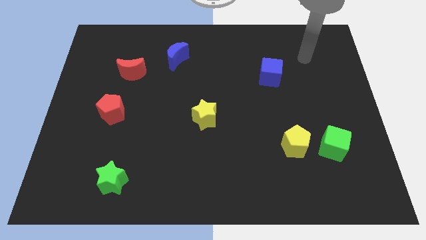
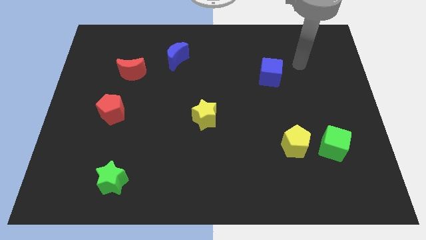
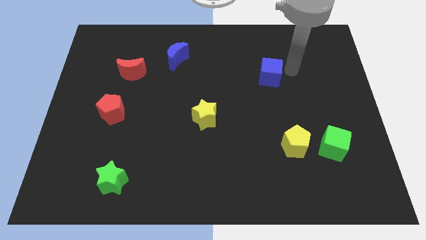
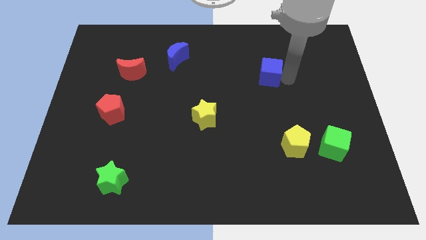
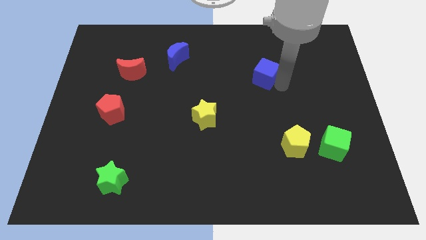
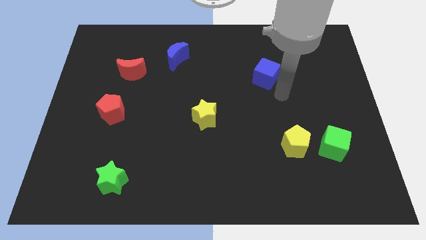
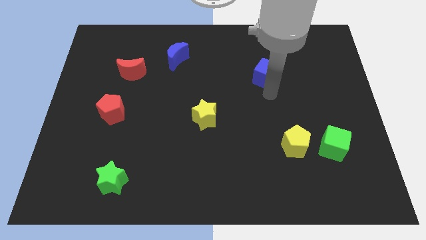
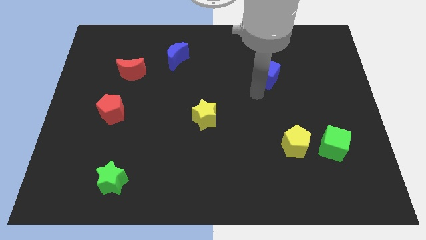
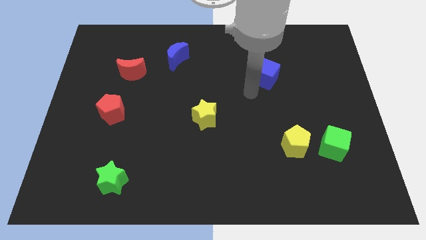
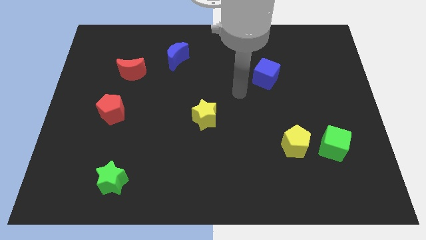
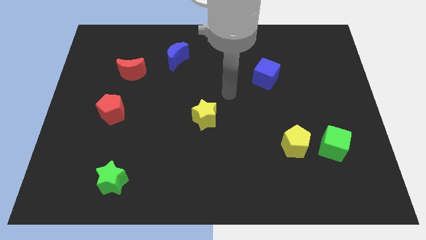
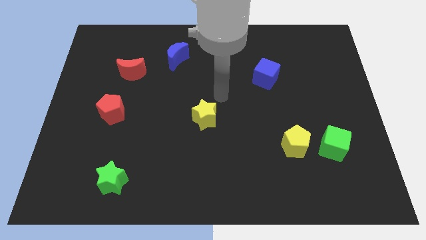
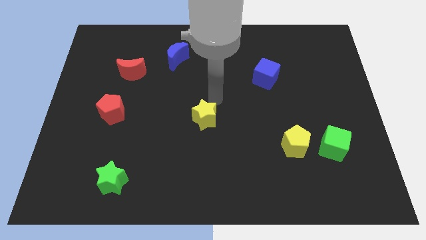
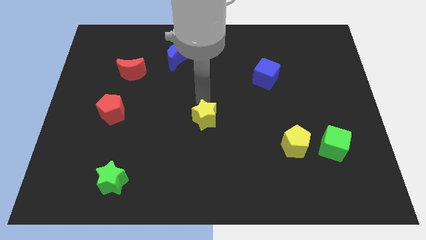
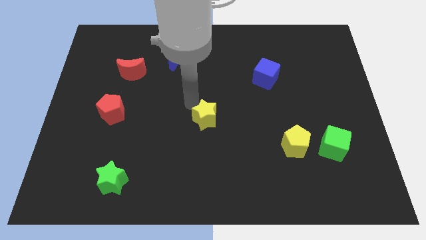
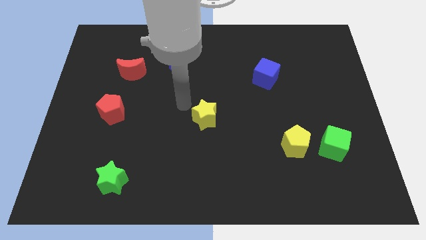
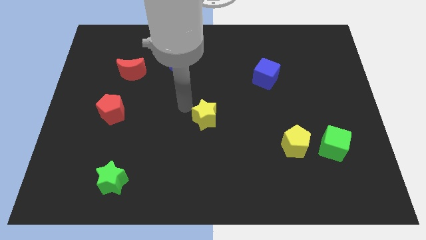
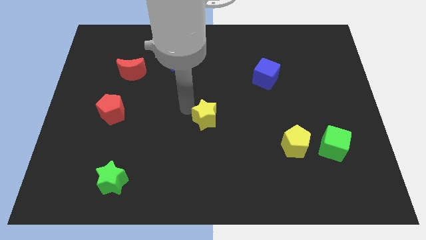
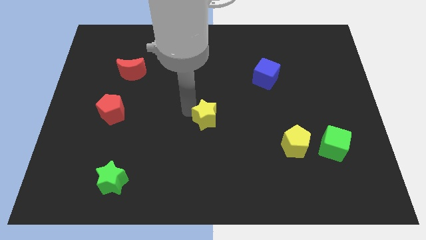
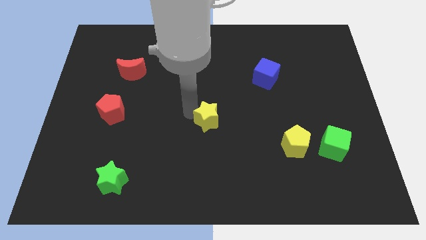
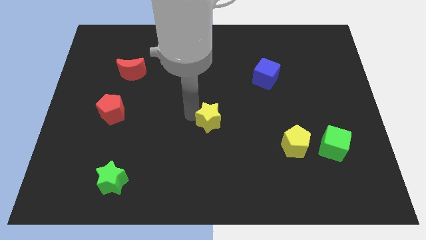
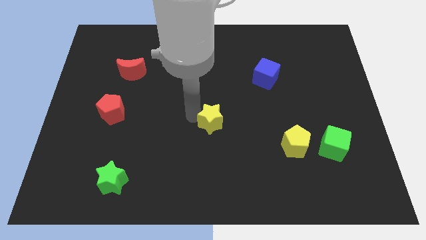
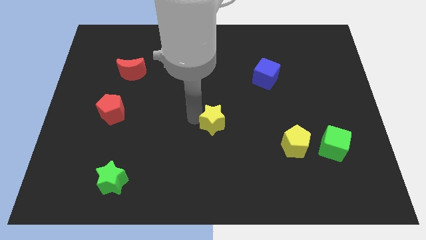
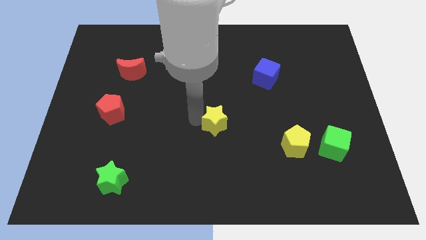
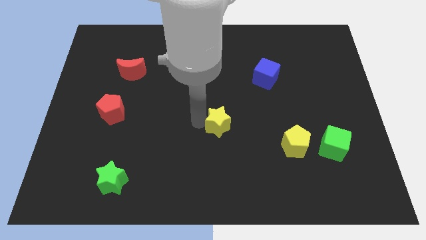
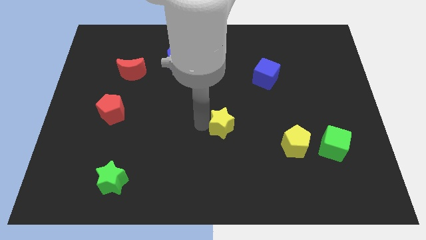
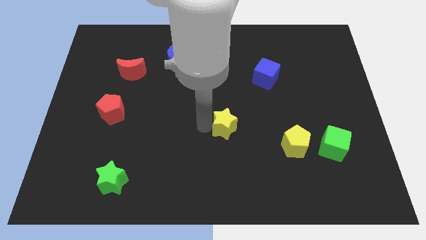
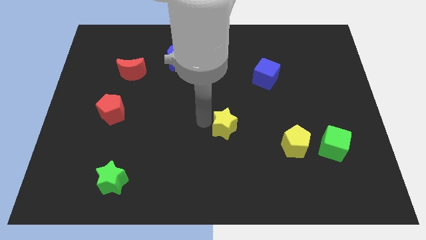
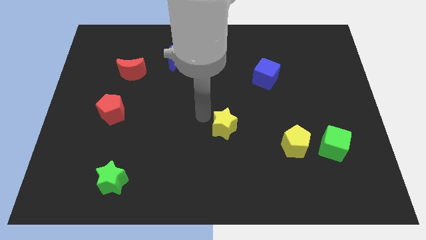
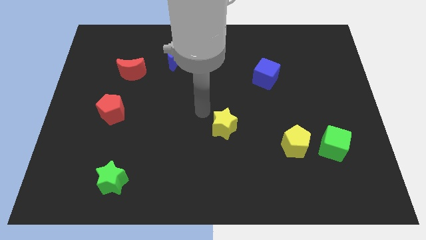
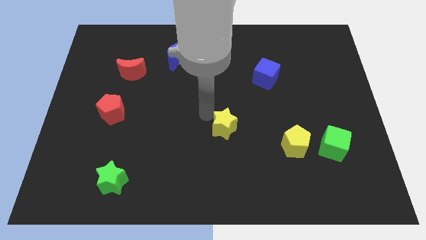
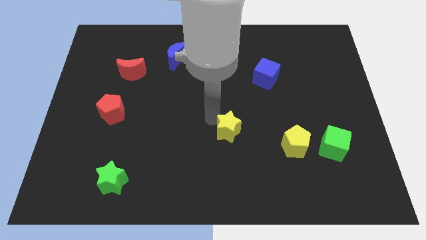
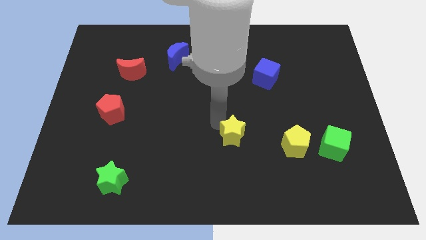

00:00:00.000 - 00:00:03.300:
slightly push the yellow star down and then right

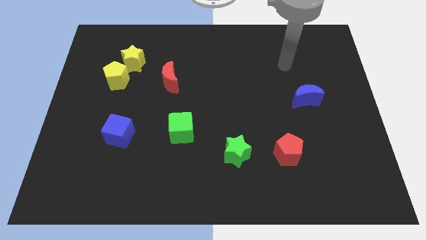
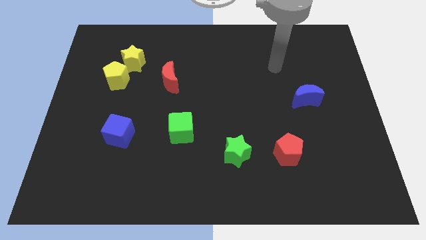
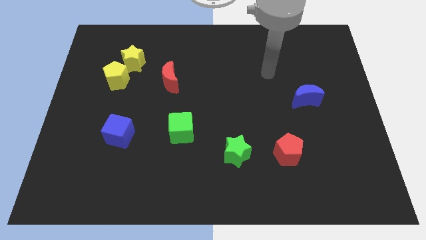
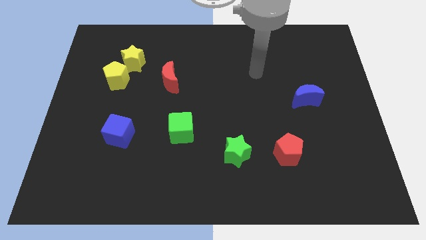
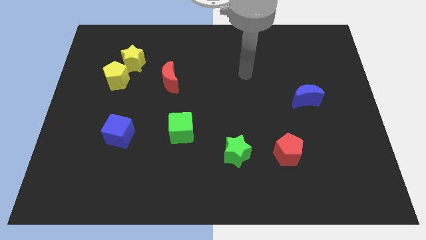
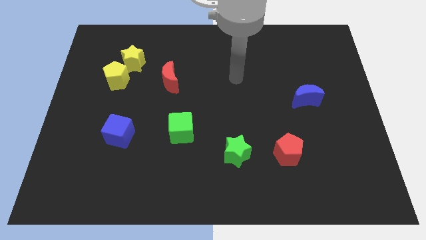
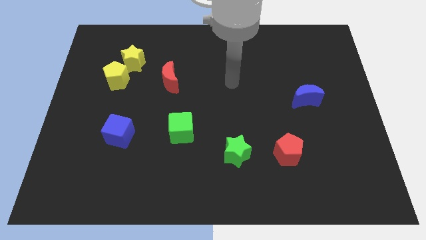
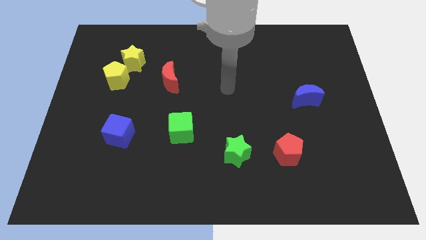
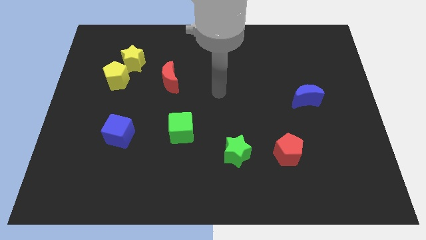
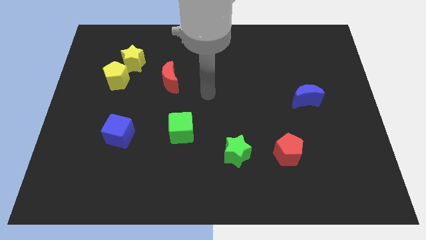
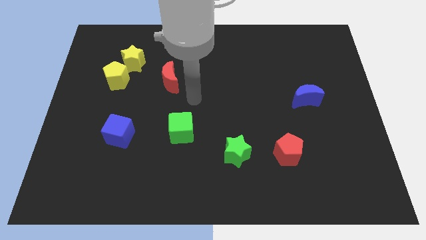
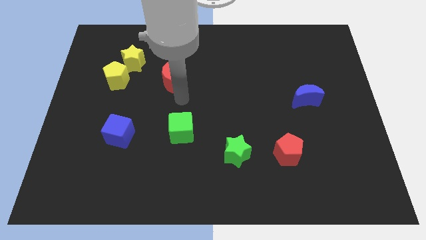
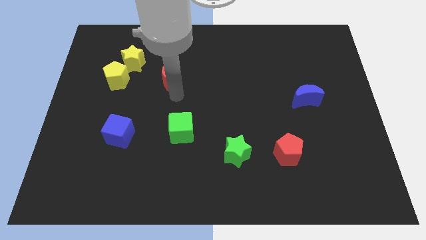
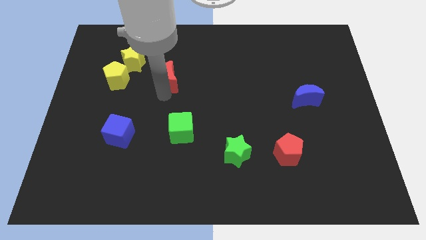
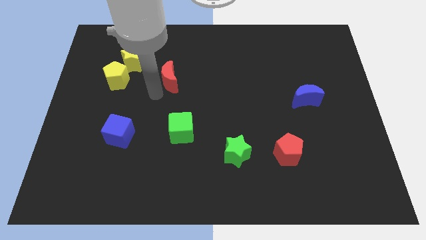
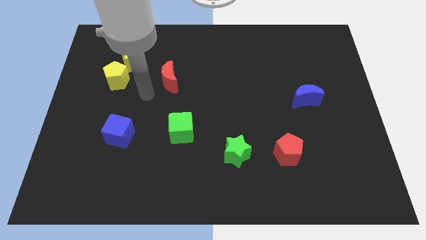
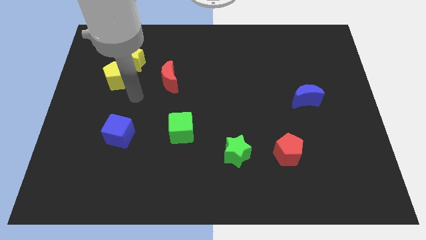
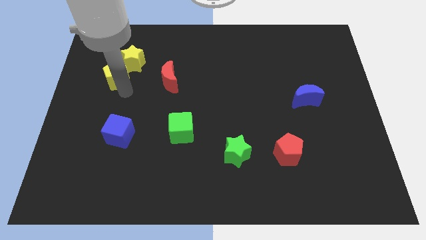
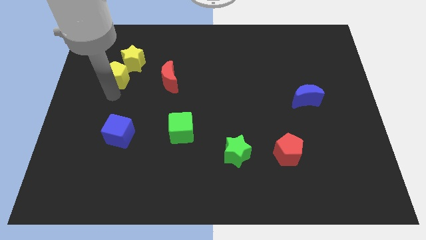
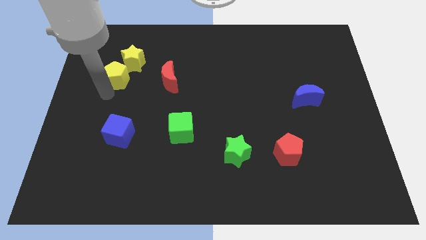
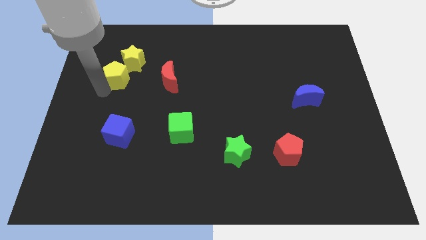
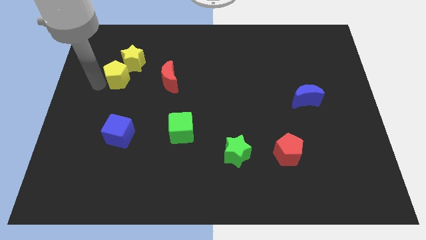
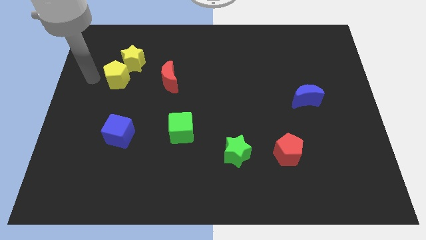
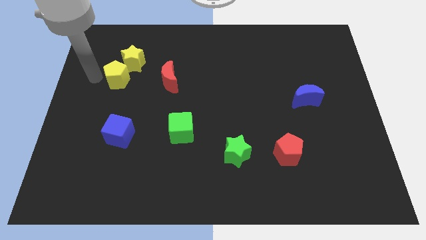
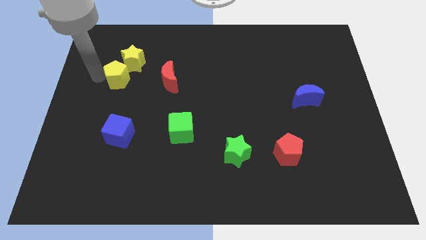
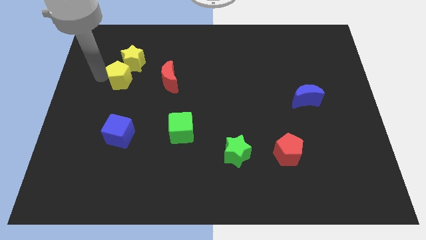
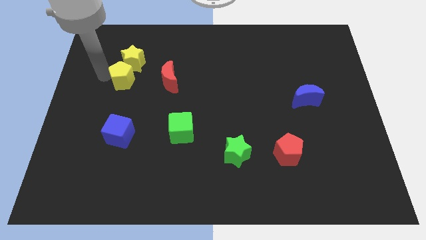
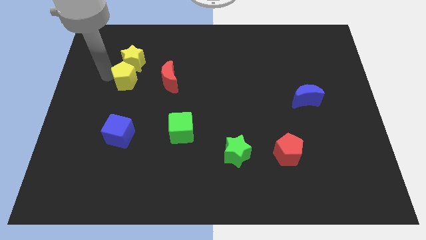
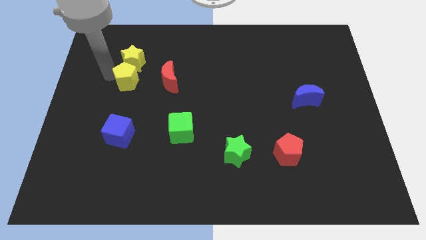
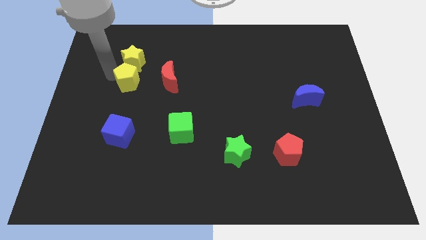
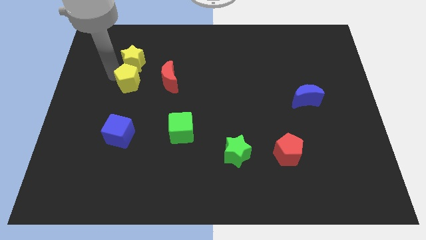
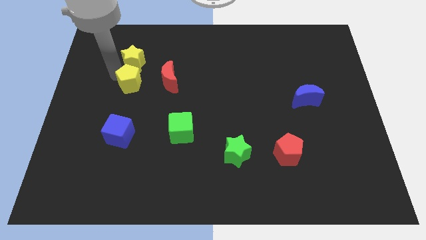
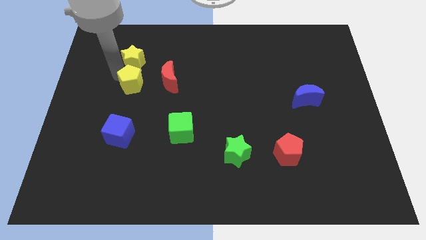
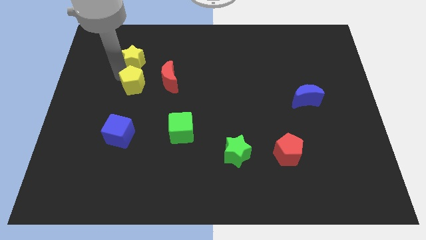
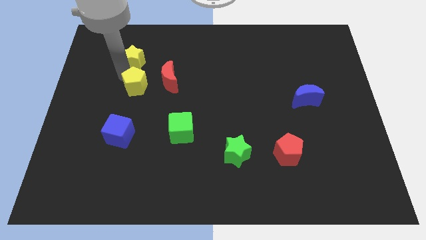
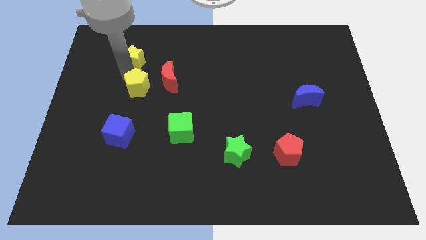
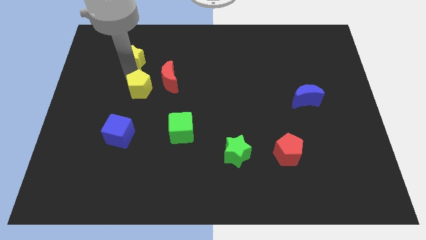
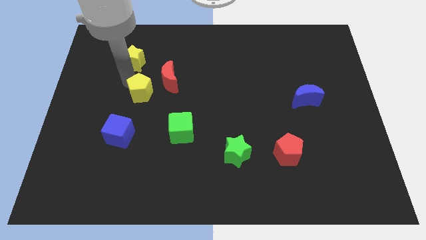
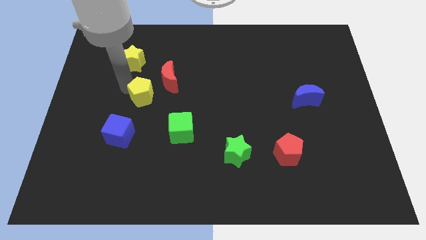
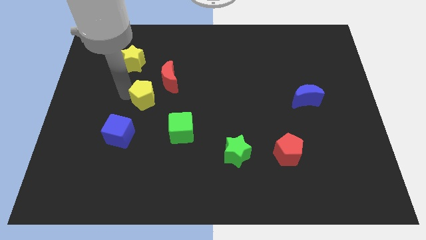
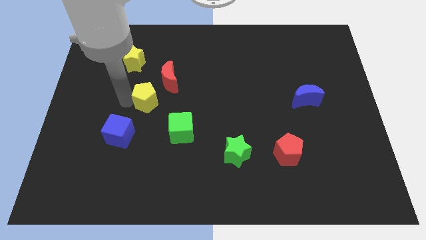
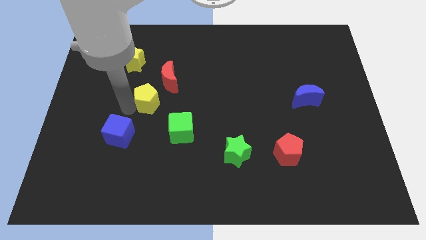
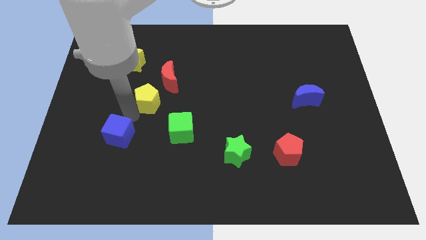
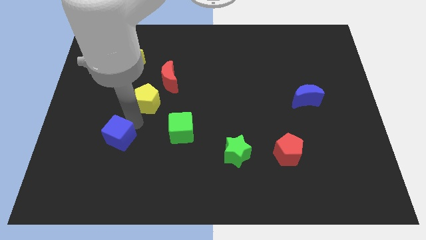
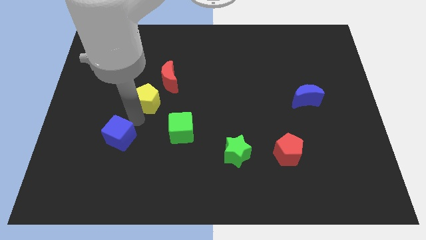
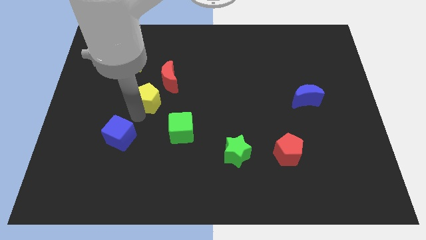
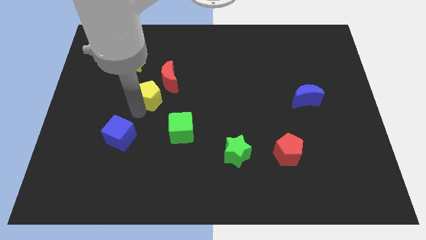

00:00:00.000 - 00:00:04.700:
slightly move the yellow pentagon to the right
